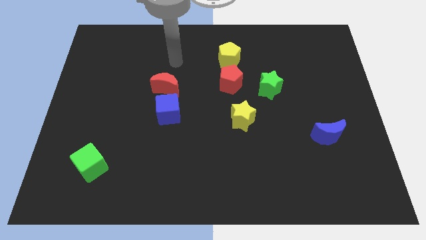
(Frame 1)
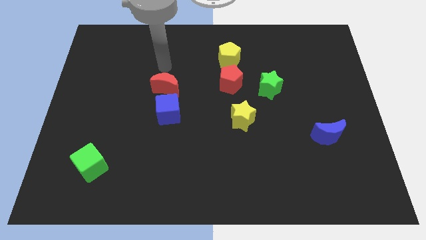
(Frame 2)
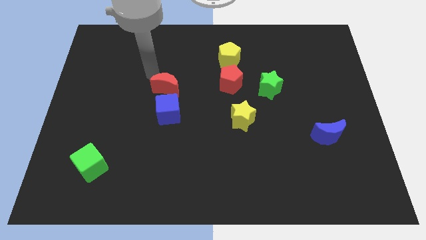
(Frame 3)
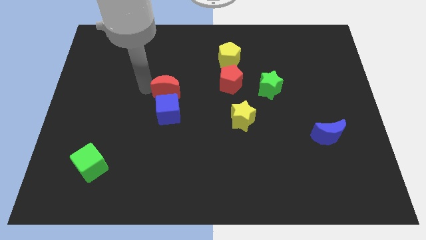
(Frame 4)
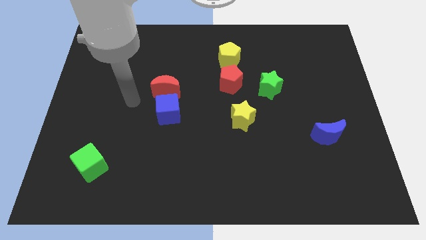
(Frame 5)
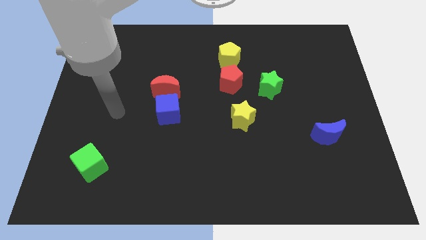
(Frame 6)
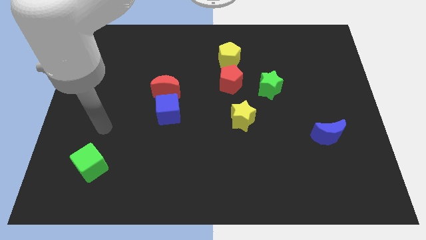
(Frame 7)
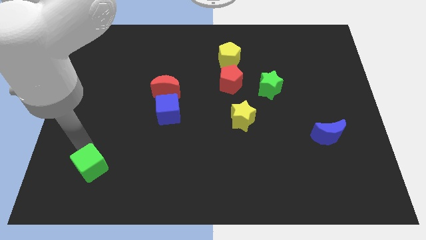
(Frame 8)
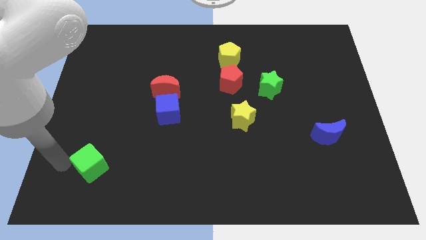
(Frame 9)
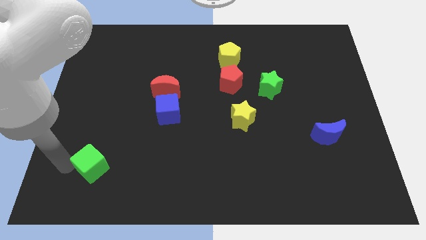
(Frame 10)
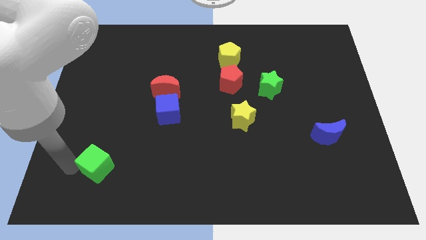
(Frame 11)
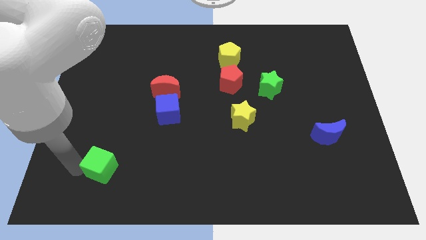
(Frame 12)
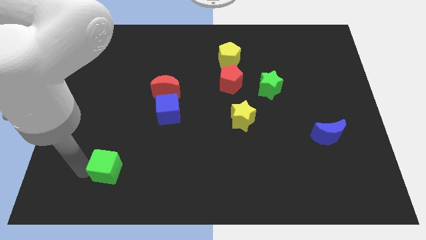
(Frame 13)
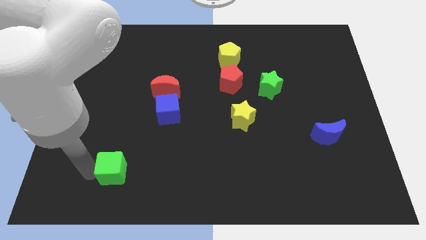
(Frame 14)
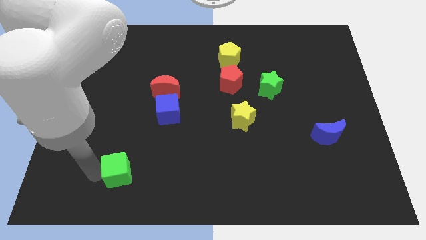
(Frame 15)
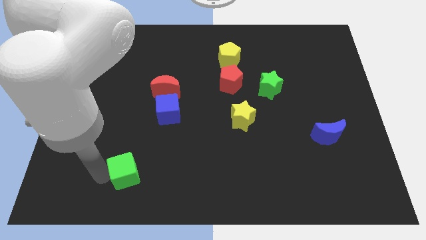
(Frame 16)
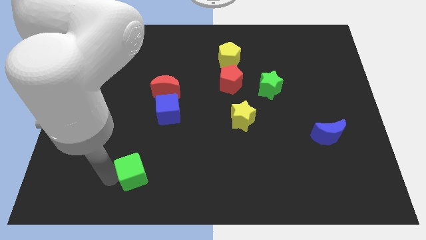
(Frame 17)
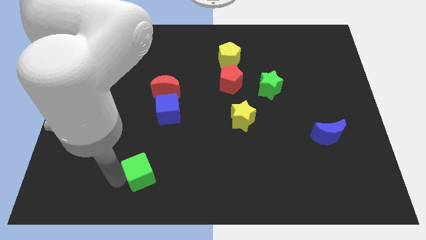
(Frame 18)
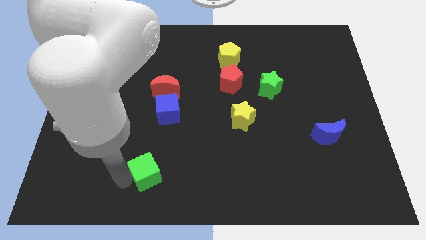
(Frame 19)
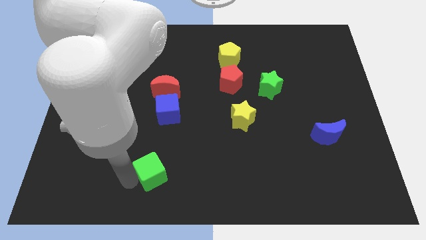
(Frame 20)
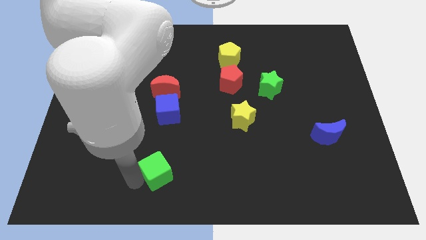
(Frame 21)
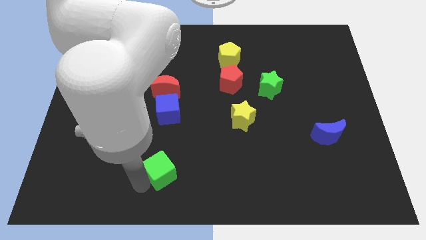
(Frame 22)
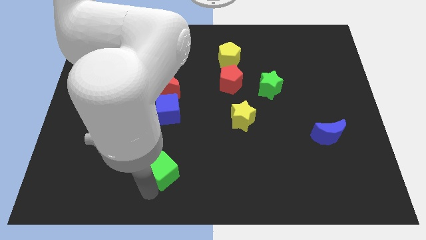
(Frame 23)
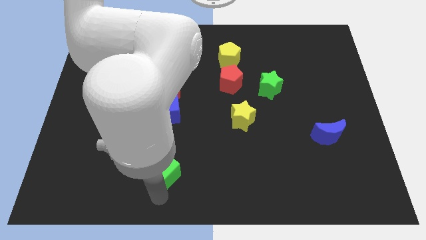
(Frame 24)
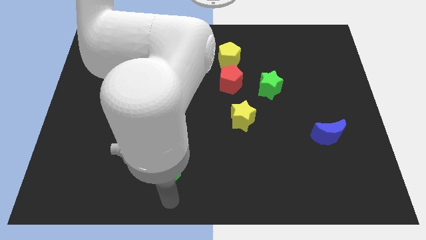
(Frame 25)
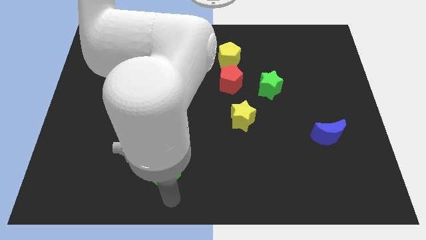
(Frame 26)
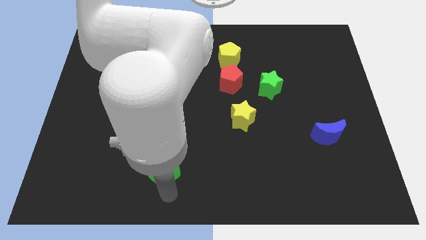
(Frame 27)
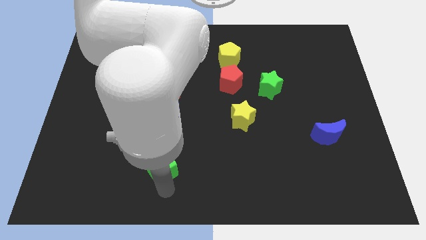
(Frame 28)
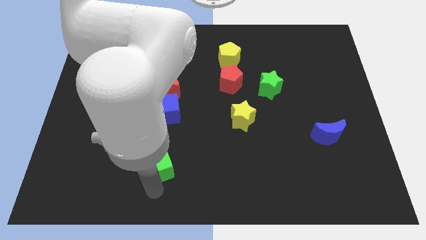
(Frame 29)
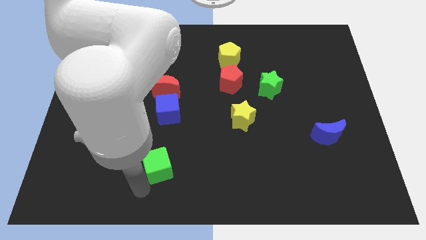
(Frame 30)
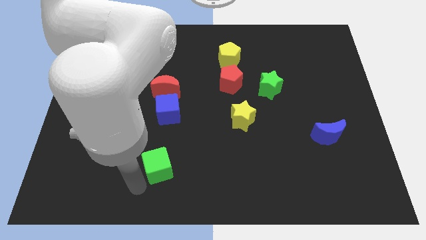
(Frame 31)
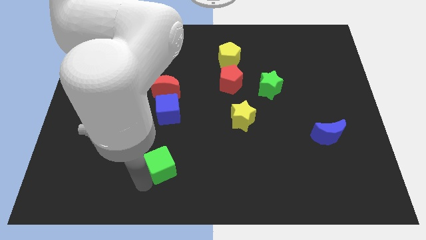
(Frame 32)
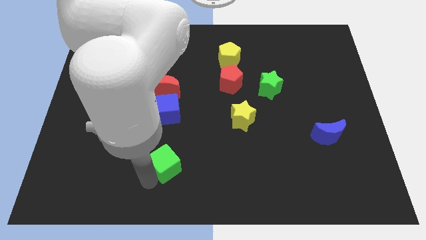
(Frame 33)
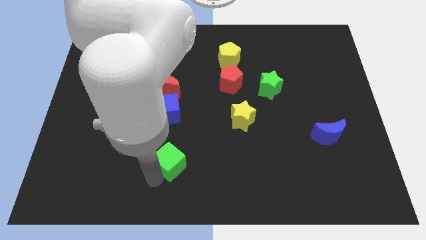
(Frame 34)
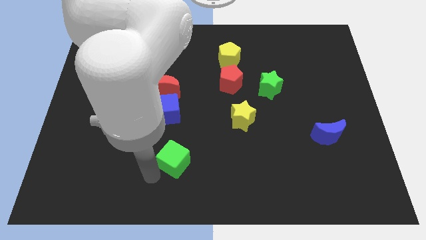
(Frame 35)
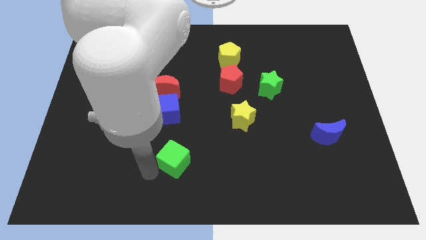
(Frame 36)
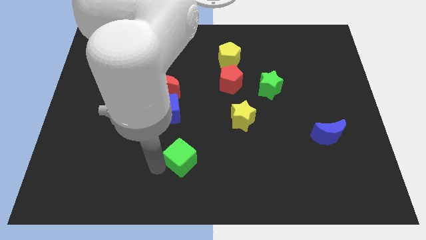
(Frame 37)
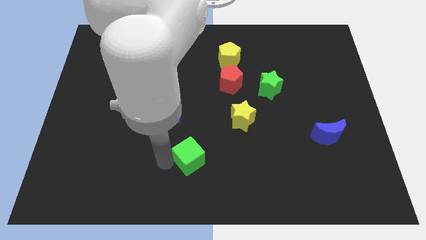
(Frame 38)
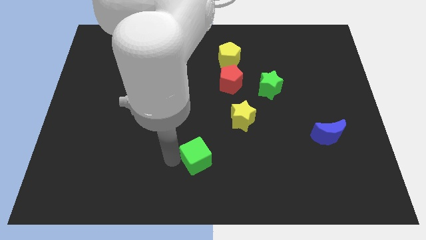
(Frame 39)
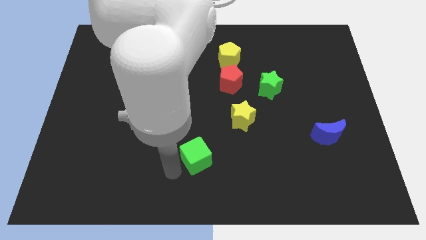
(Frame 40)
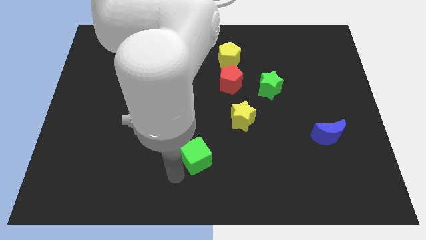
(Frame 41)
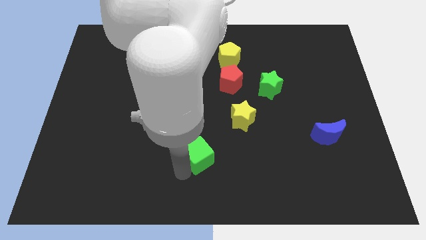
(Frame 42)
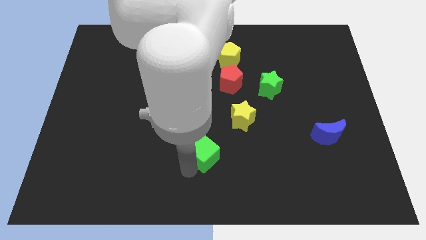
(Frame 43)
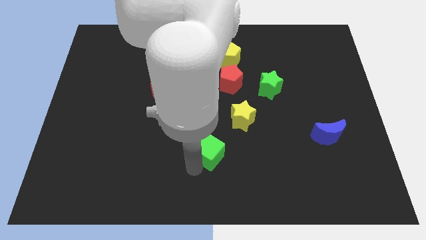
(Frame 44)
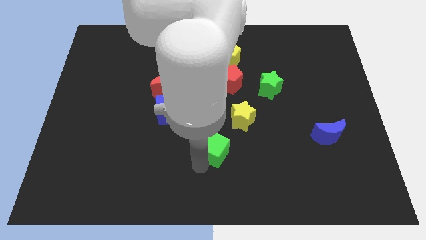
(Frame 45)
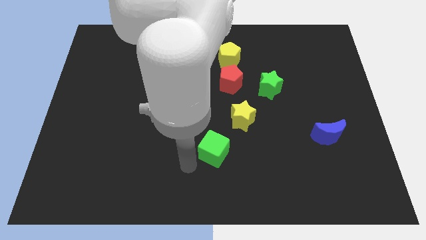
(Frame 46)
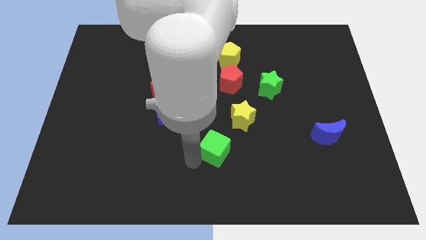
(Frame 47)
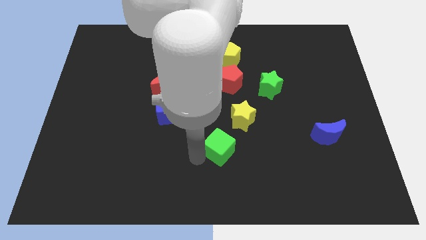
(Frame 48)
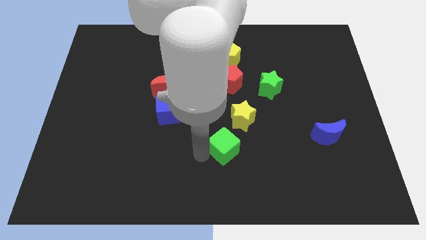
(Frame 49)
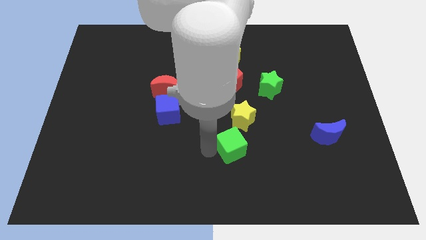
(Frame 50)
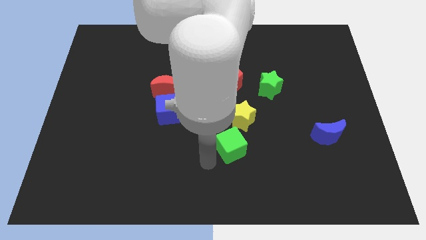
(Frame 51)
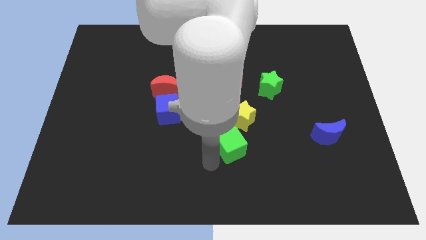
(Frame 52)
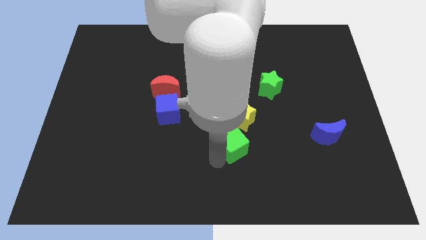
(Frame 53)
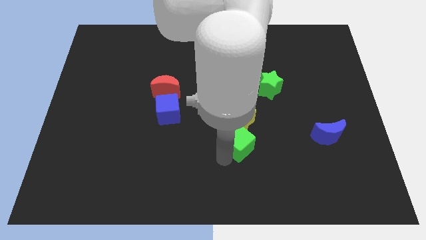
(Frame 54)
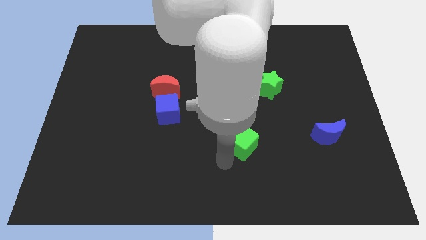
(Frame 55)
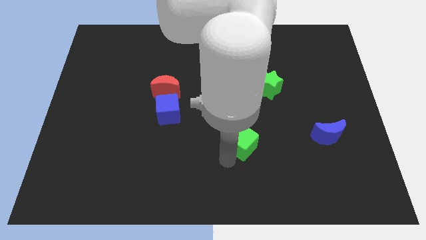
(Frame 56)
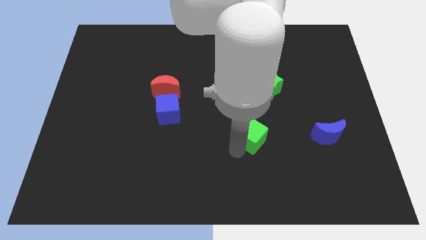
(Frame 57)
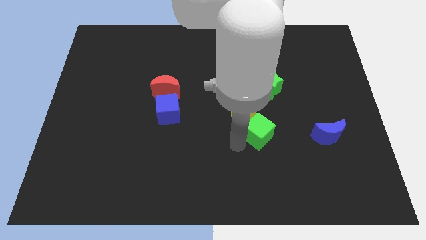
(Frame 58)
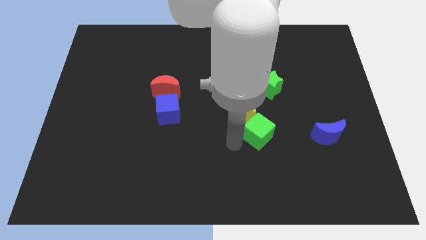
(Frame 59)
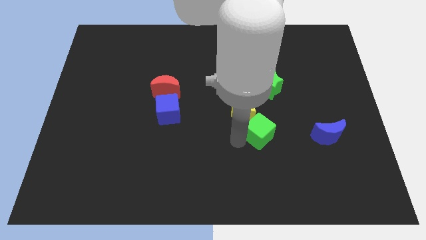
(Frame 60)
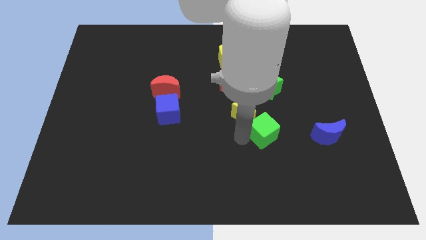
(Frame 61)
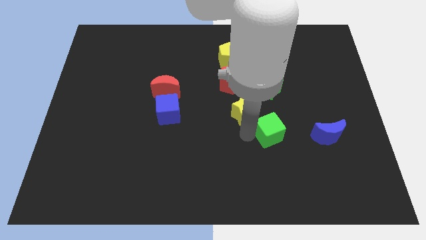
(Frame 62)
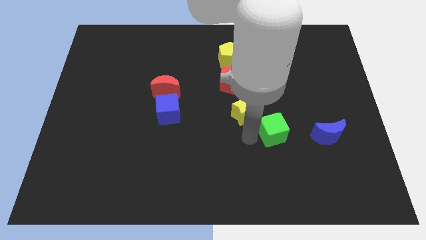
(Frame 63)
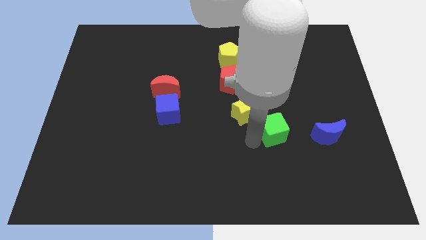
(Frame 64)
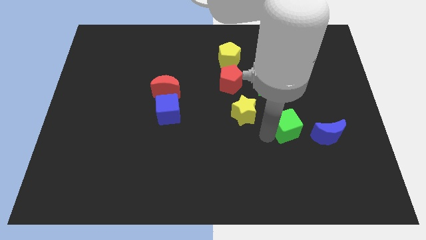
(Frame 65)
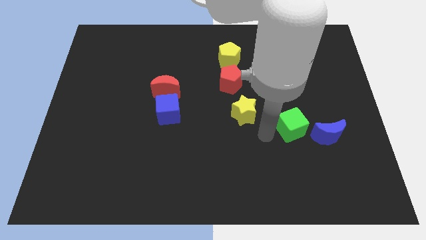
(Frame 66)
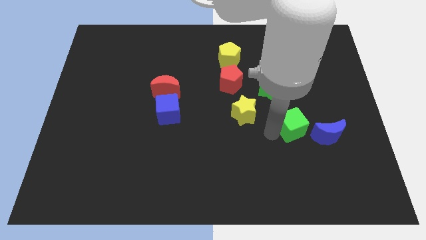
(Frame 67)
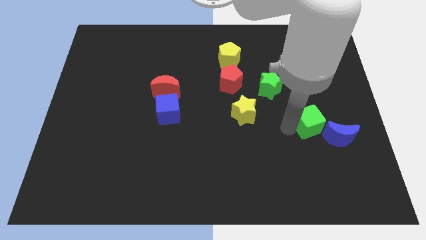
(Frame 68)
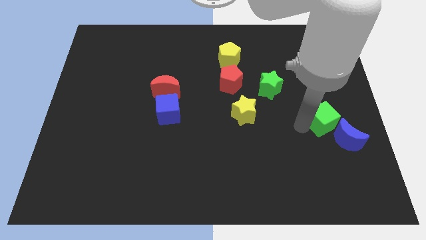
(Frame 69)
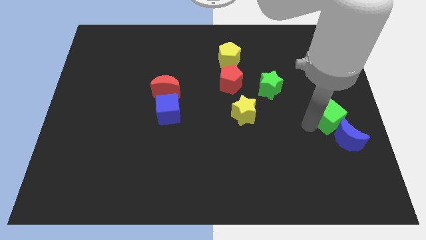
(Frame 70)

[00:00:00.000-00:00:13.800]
put the green cube to the right side

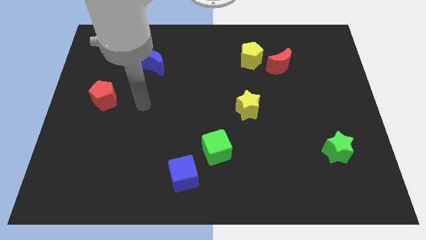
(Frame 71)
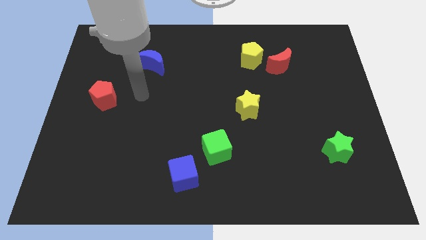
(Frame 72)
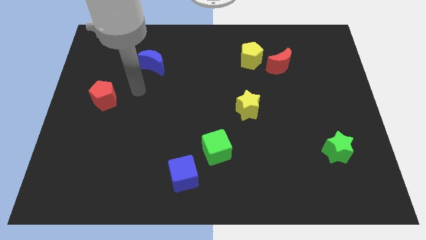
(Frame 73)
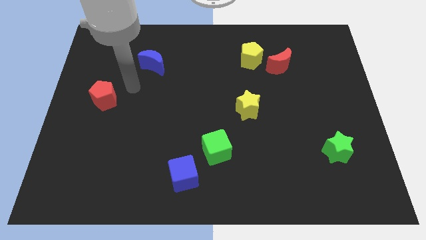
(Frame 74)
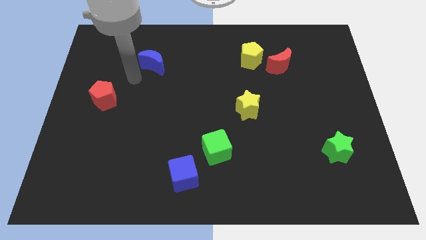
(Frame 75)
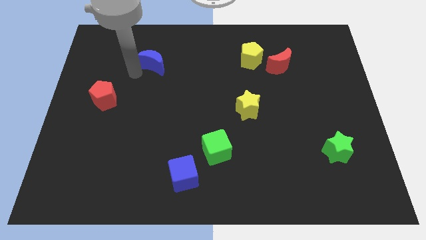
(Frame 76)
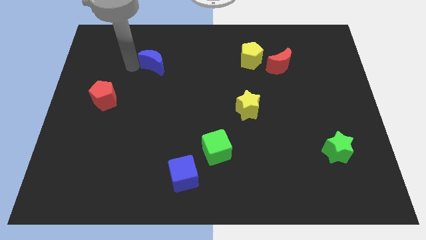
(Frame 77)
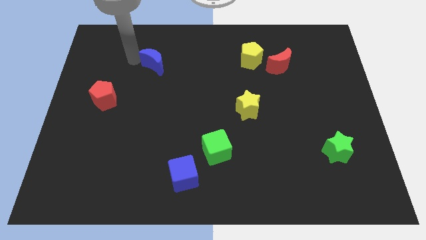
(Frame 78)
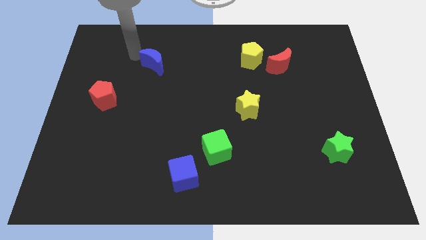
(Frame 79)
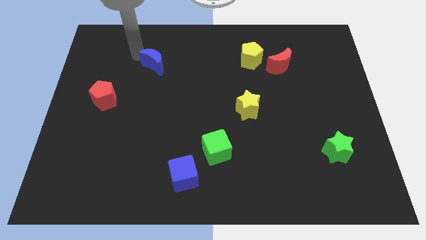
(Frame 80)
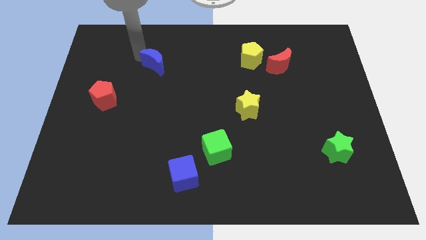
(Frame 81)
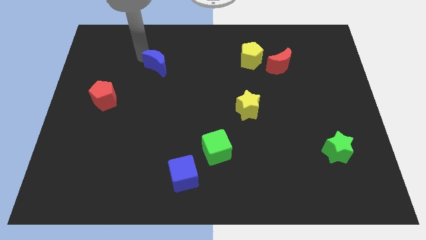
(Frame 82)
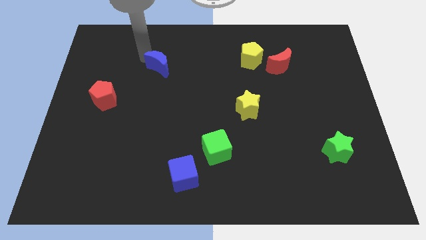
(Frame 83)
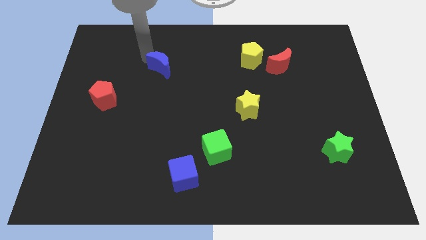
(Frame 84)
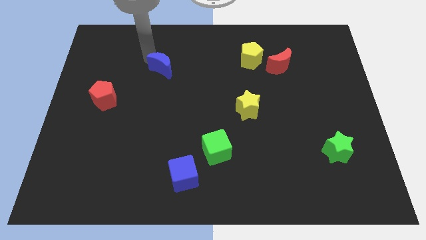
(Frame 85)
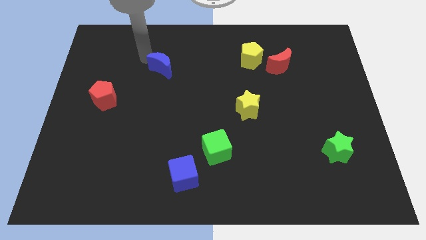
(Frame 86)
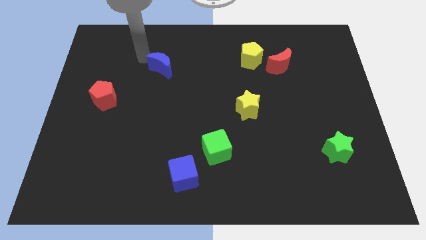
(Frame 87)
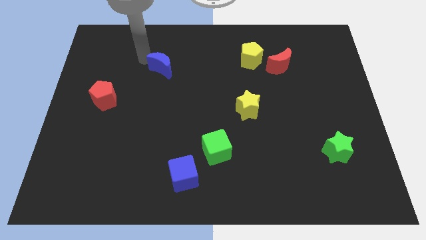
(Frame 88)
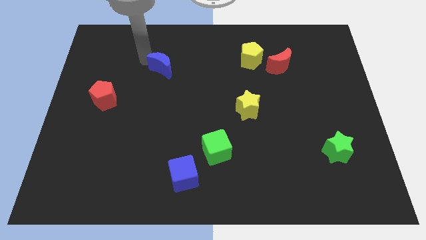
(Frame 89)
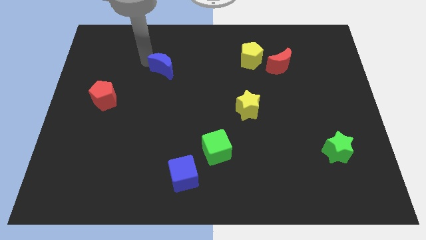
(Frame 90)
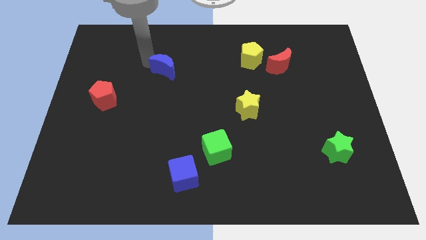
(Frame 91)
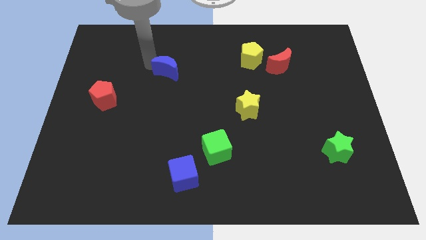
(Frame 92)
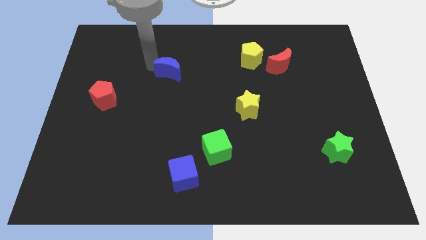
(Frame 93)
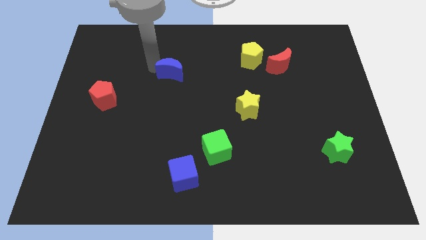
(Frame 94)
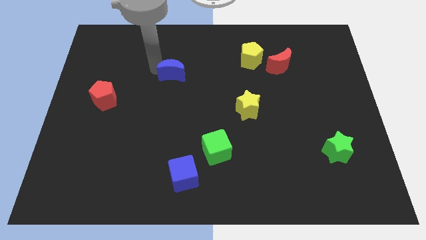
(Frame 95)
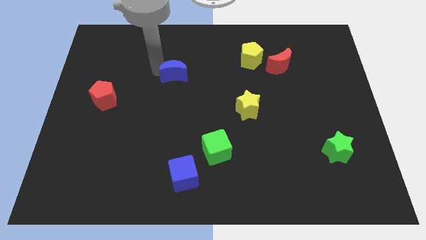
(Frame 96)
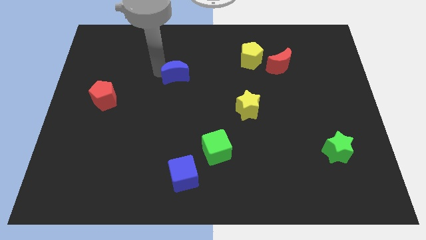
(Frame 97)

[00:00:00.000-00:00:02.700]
move the blue moon to the middle of the board
